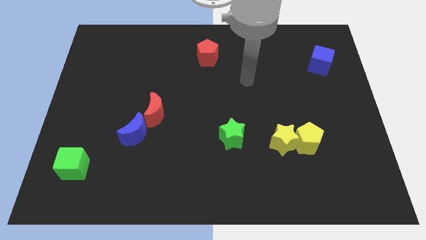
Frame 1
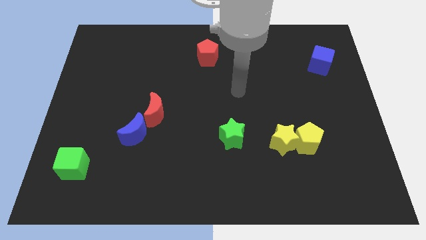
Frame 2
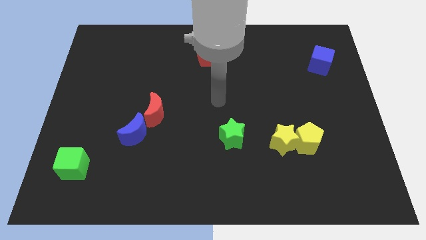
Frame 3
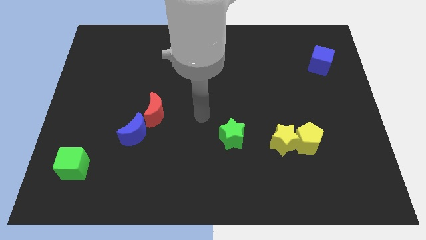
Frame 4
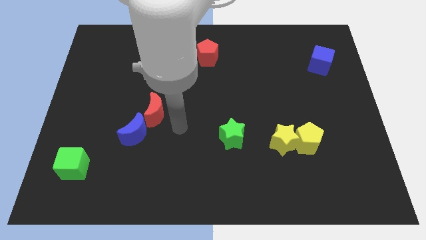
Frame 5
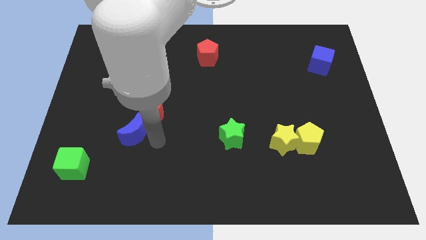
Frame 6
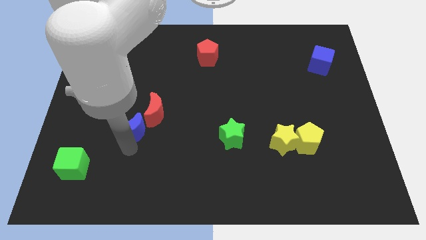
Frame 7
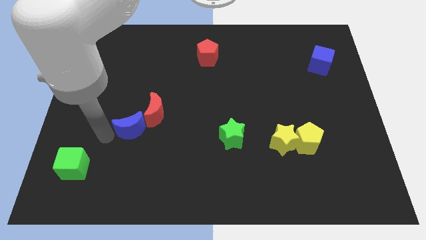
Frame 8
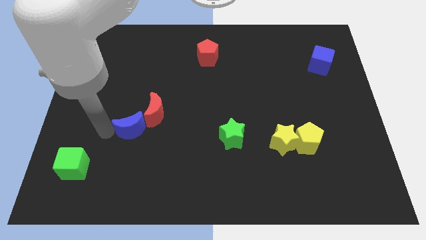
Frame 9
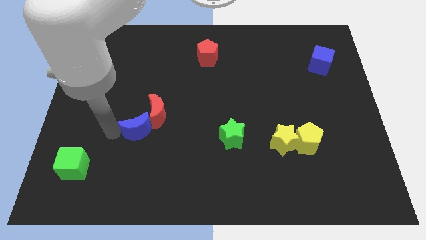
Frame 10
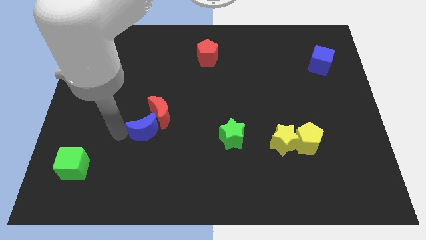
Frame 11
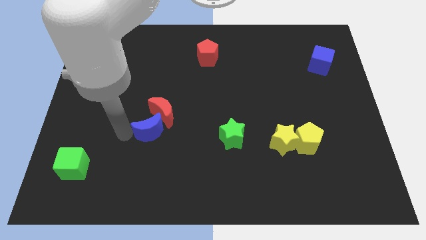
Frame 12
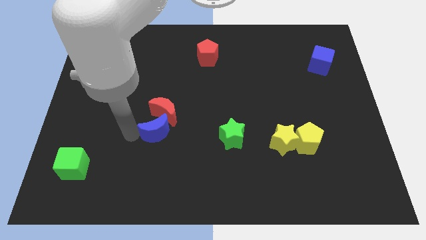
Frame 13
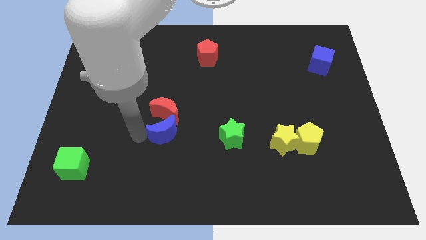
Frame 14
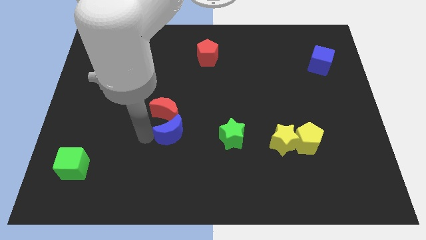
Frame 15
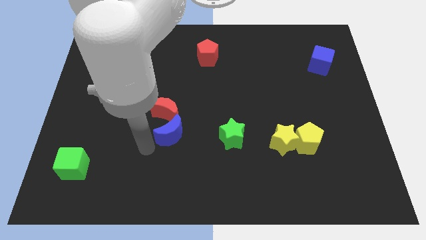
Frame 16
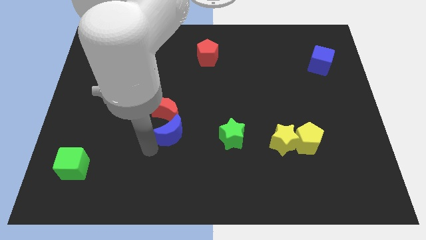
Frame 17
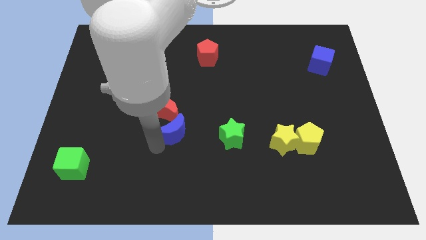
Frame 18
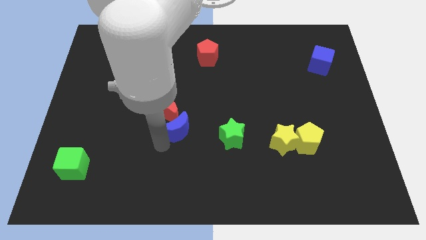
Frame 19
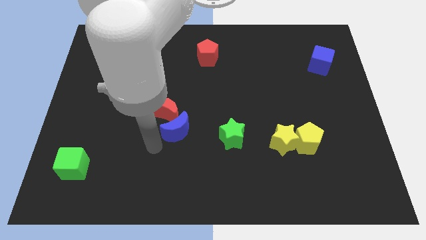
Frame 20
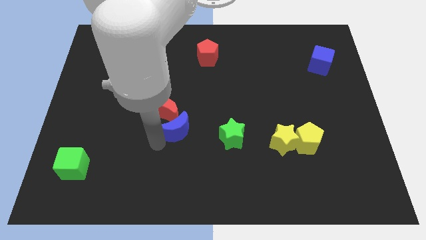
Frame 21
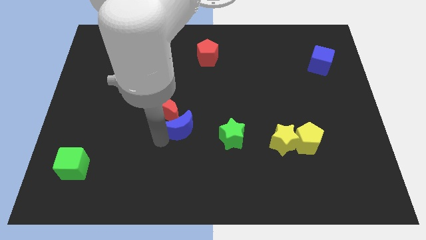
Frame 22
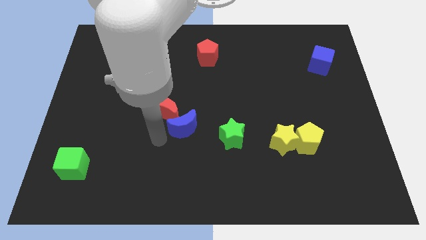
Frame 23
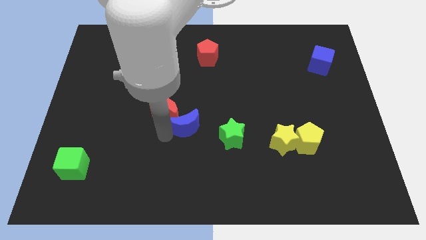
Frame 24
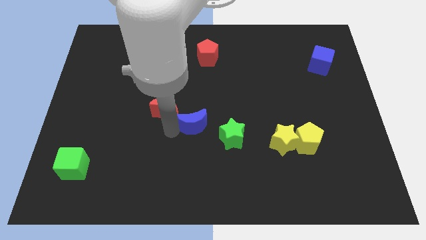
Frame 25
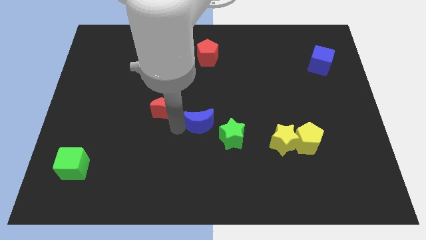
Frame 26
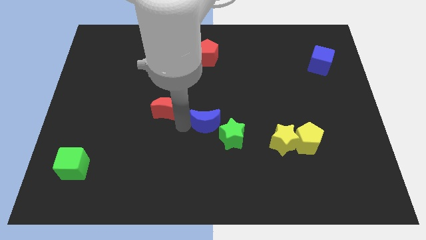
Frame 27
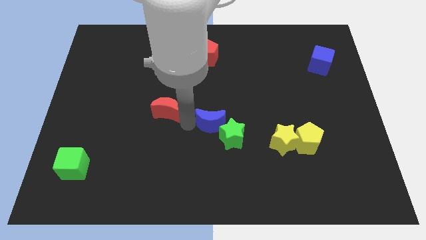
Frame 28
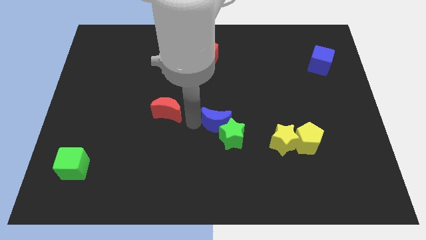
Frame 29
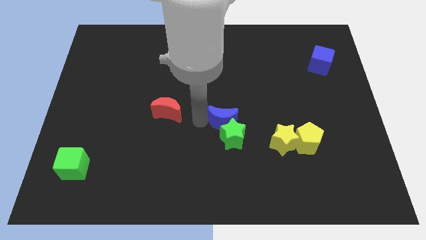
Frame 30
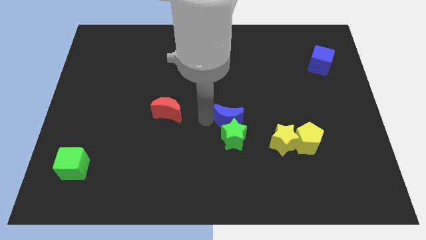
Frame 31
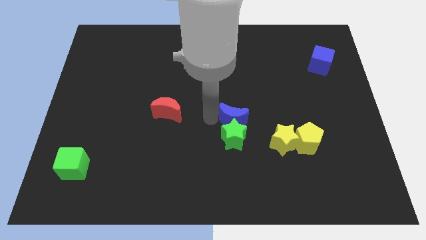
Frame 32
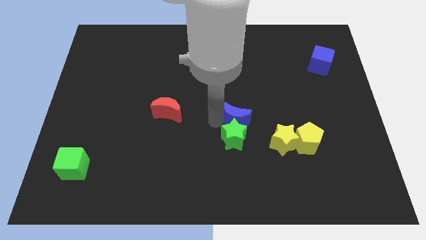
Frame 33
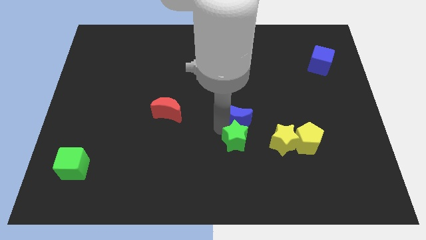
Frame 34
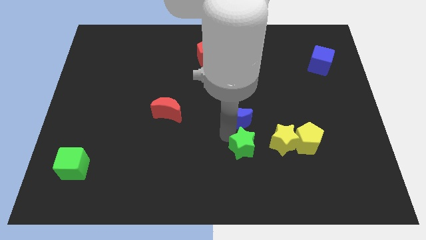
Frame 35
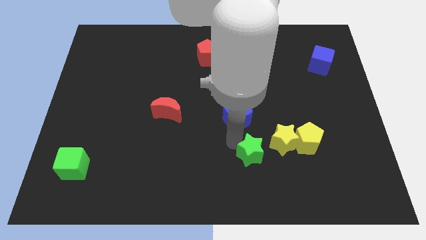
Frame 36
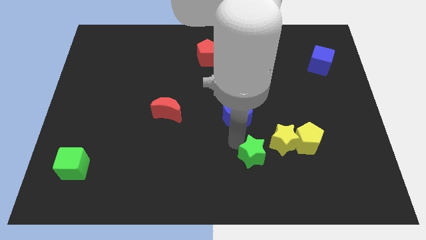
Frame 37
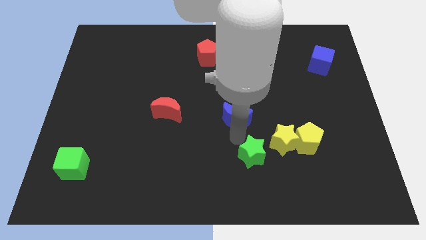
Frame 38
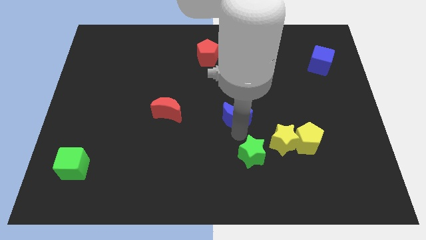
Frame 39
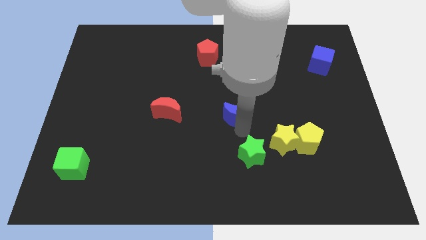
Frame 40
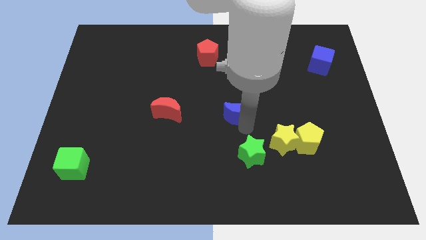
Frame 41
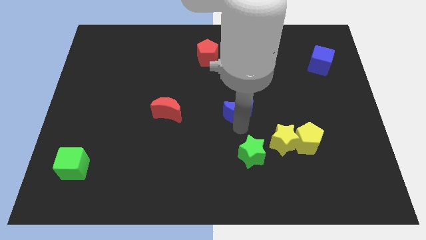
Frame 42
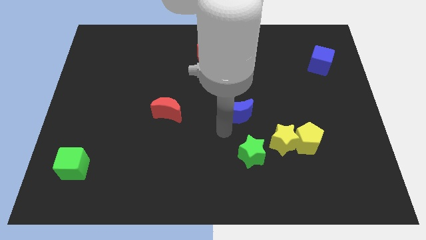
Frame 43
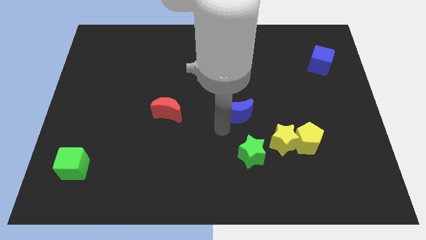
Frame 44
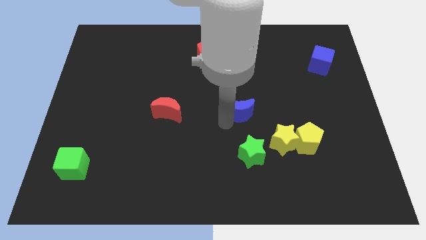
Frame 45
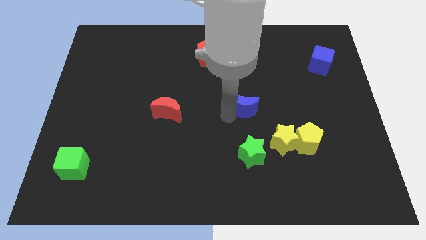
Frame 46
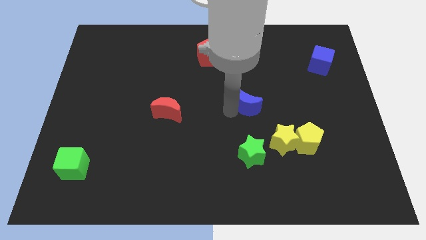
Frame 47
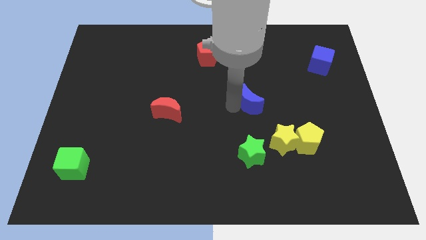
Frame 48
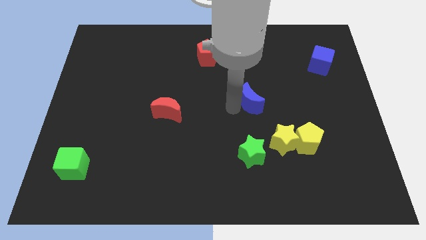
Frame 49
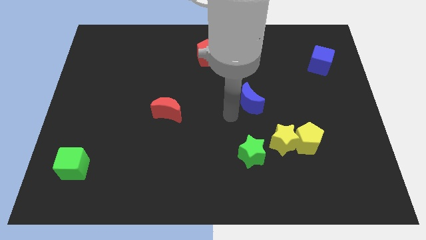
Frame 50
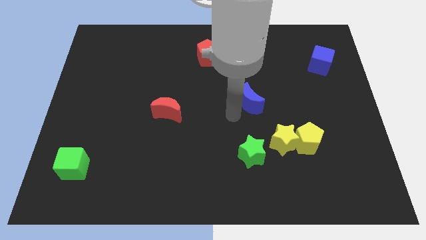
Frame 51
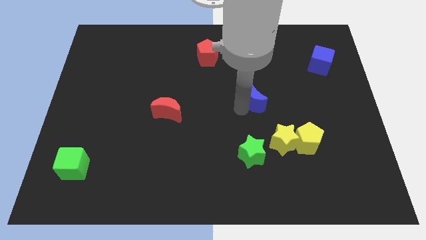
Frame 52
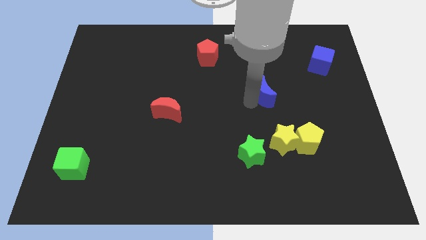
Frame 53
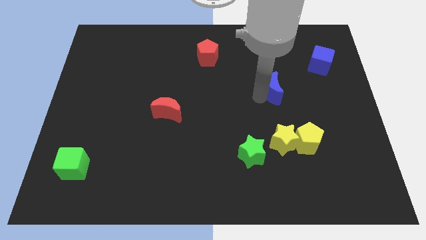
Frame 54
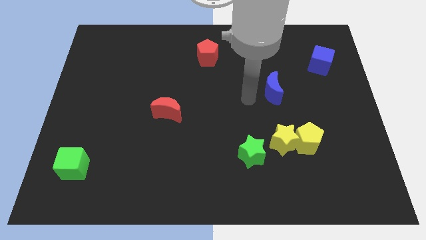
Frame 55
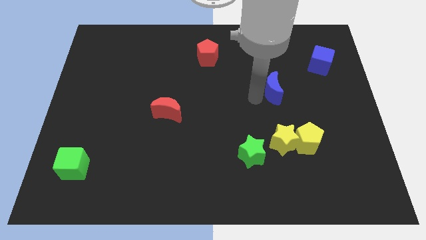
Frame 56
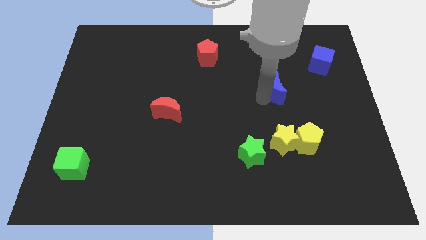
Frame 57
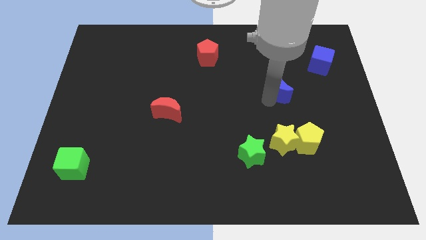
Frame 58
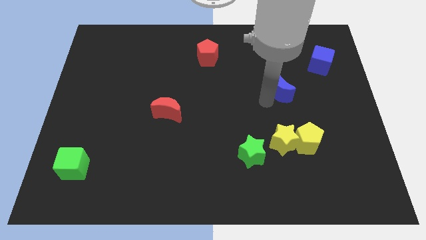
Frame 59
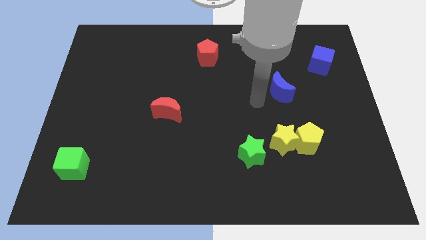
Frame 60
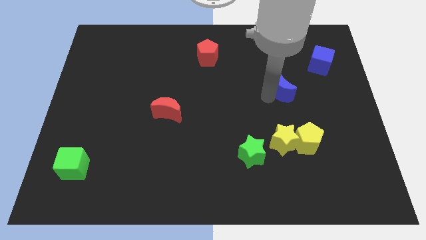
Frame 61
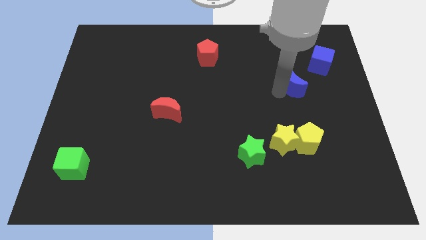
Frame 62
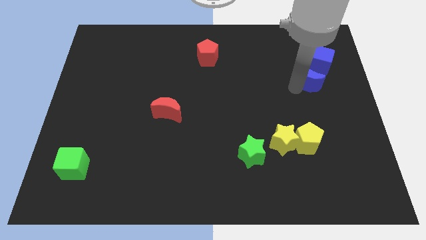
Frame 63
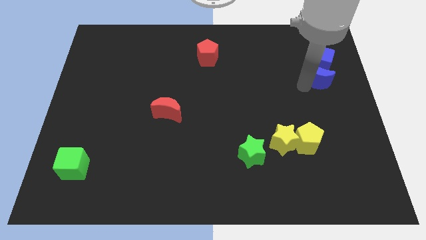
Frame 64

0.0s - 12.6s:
move the blue moon next to the blue cube

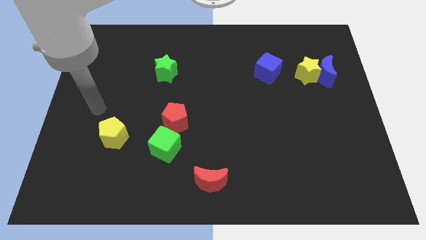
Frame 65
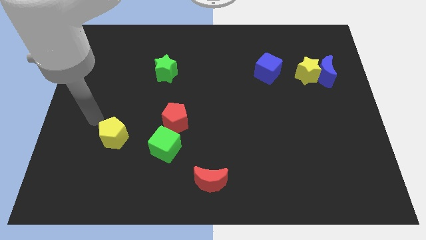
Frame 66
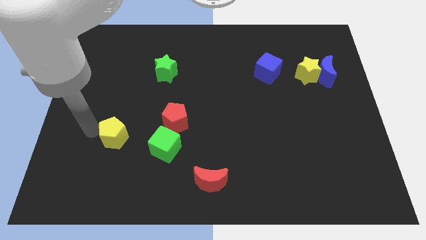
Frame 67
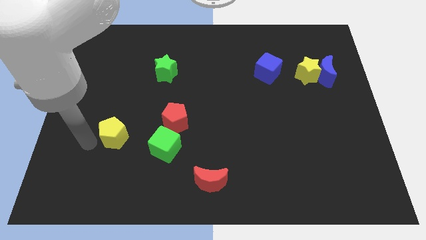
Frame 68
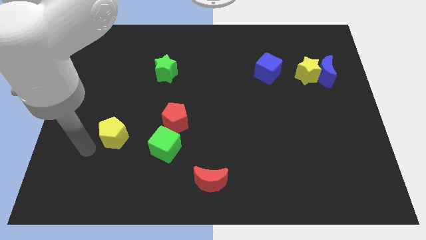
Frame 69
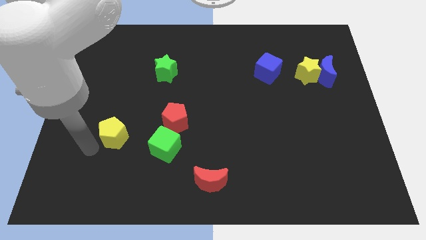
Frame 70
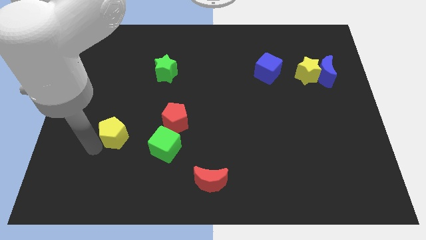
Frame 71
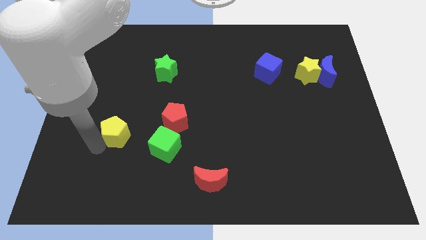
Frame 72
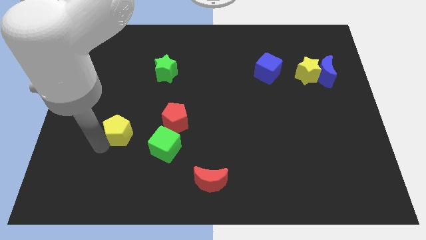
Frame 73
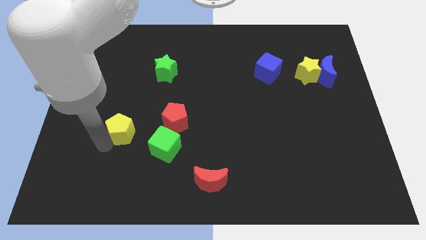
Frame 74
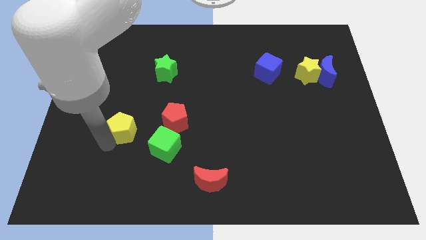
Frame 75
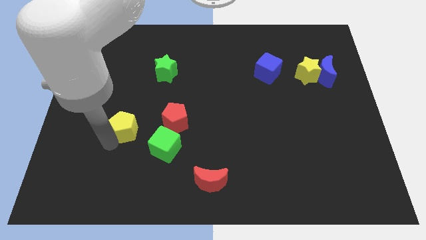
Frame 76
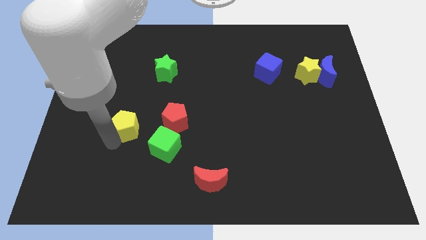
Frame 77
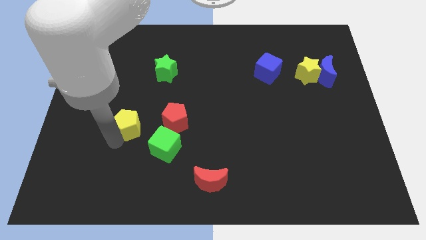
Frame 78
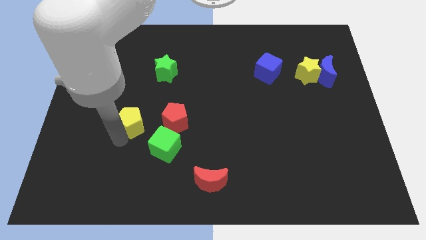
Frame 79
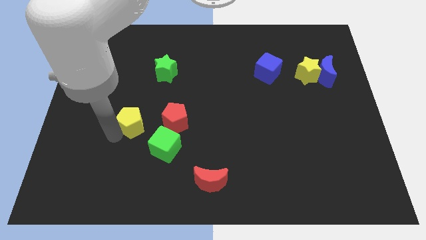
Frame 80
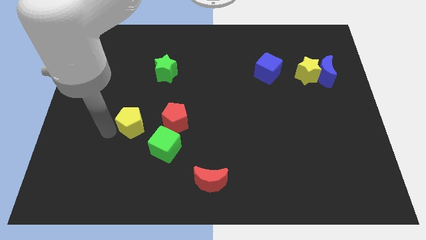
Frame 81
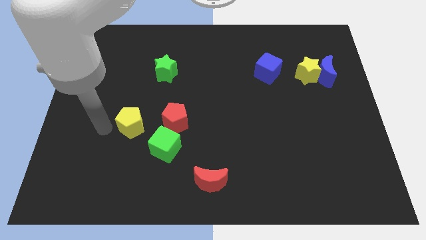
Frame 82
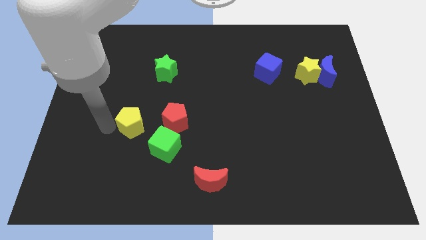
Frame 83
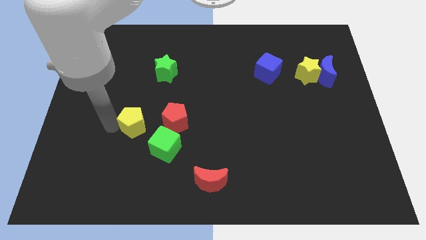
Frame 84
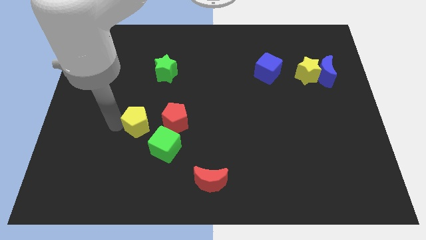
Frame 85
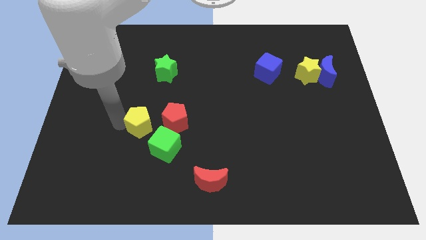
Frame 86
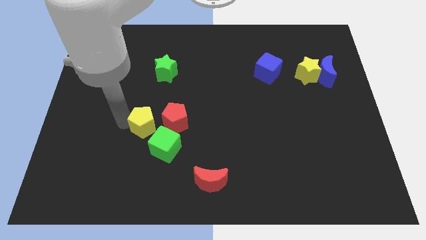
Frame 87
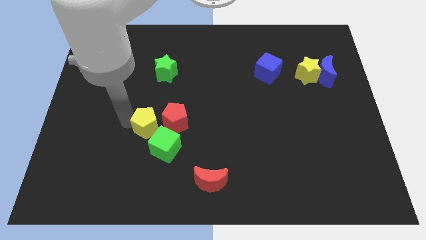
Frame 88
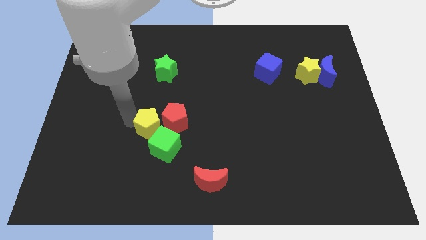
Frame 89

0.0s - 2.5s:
slide the yellow pentagon close to the red pentagon
